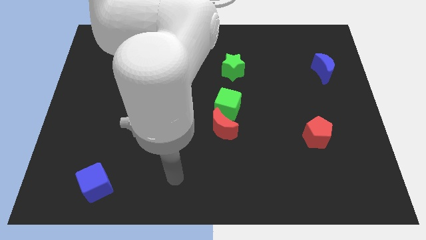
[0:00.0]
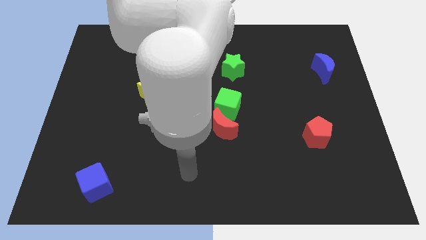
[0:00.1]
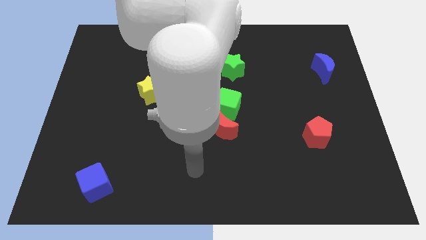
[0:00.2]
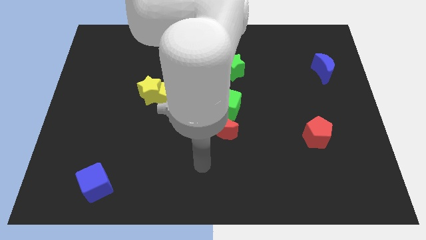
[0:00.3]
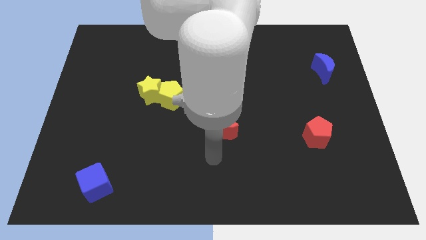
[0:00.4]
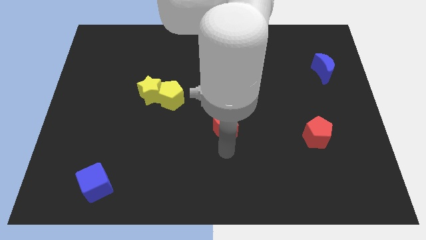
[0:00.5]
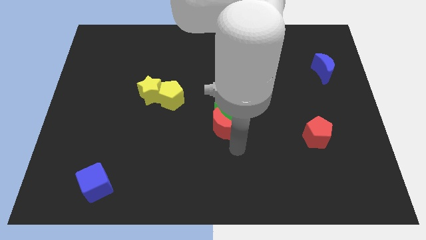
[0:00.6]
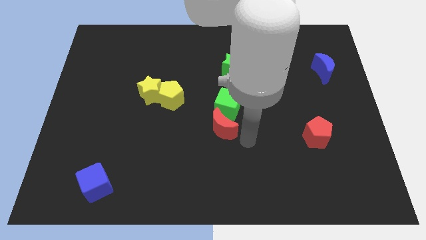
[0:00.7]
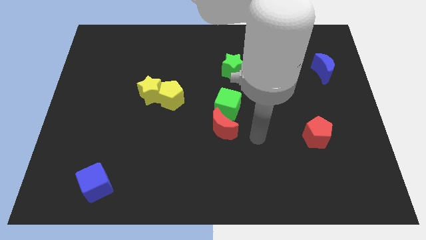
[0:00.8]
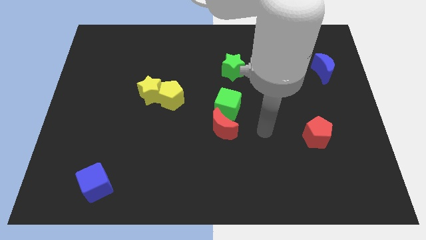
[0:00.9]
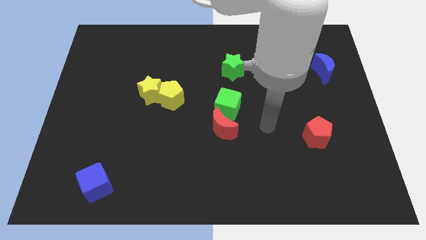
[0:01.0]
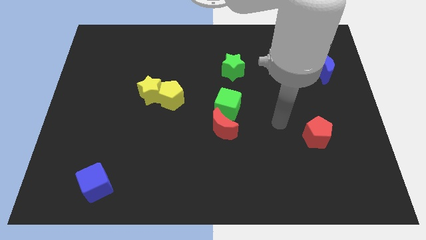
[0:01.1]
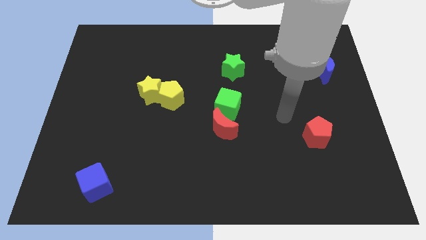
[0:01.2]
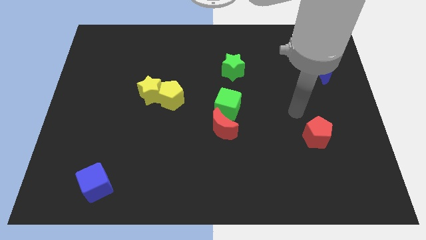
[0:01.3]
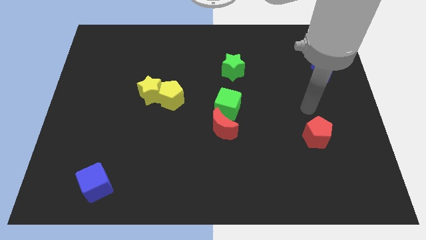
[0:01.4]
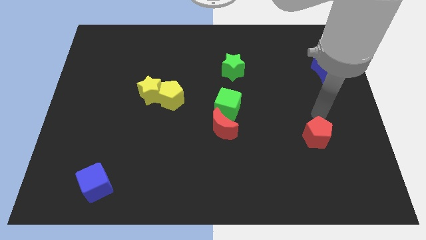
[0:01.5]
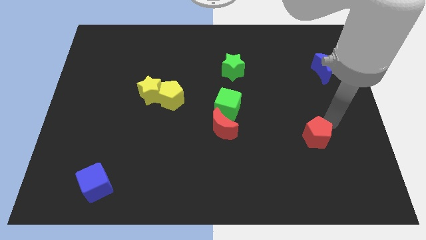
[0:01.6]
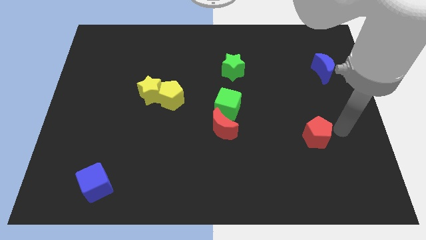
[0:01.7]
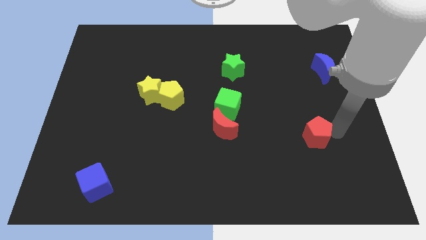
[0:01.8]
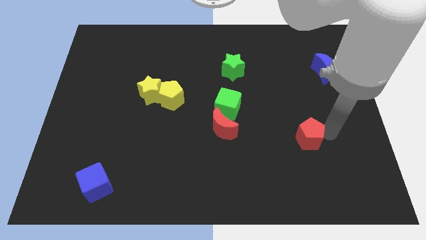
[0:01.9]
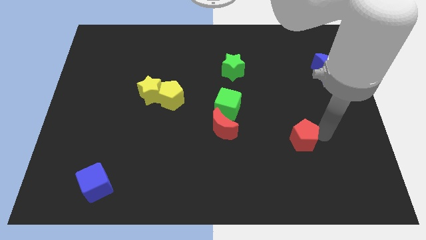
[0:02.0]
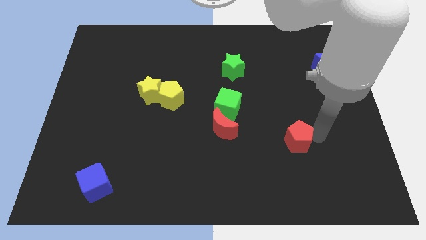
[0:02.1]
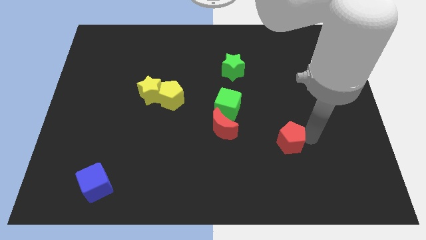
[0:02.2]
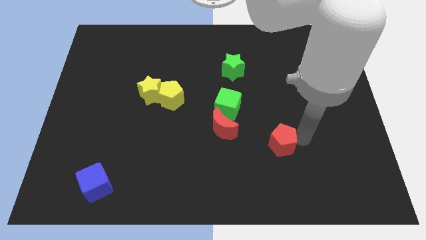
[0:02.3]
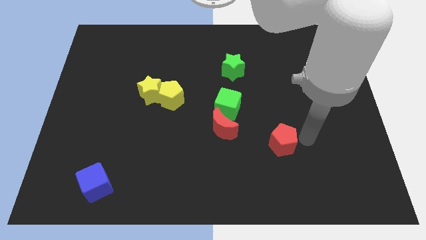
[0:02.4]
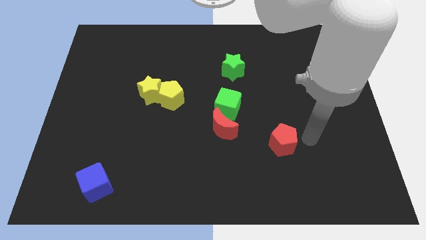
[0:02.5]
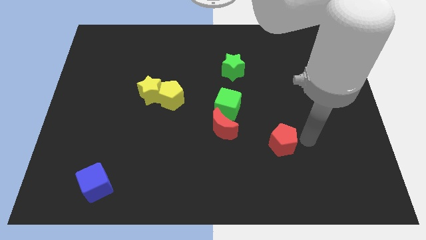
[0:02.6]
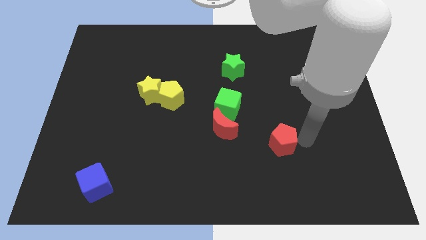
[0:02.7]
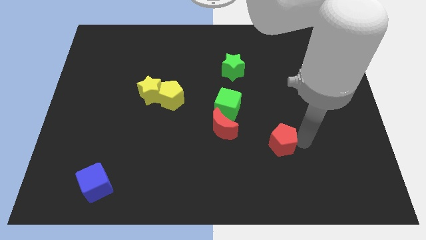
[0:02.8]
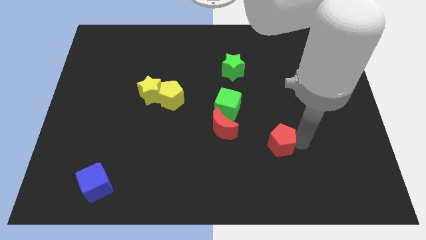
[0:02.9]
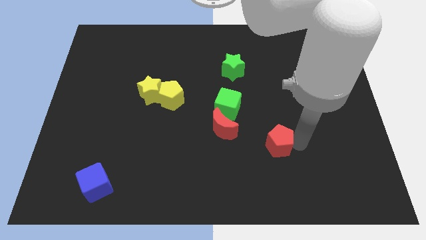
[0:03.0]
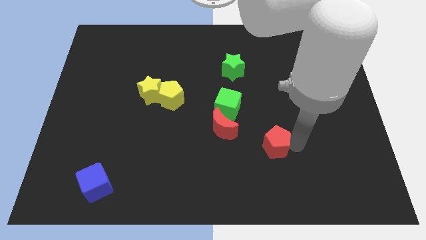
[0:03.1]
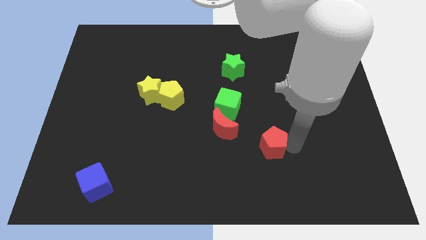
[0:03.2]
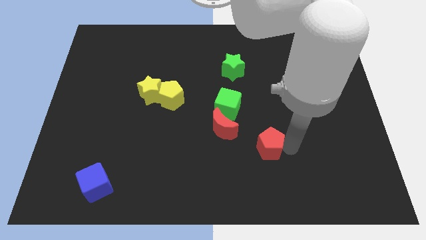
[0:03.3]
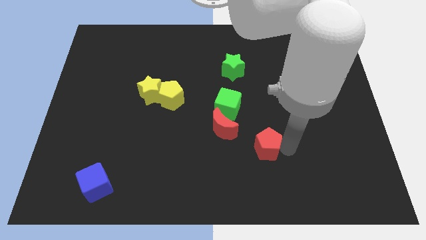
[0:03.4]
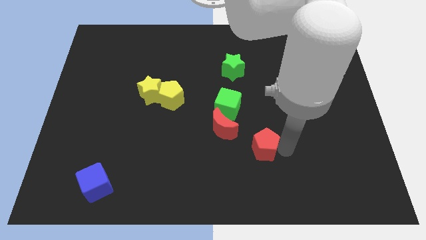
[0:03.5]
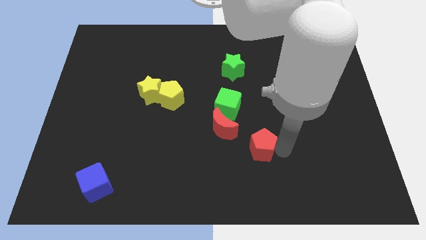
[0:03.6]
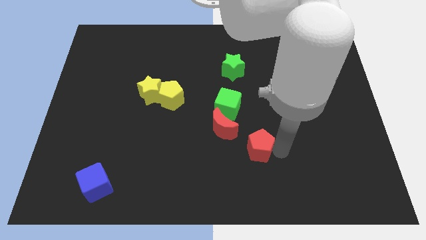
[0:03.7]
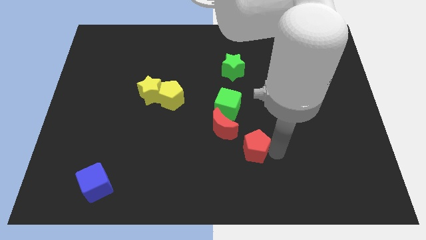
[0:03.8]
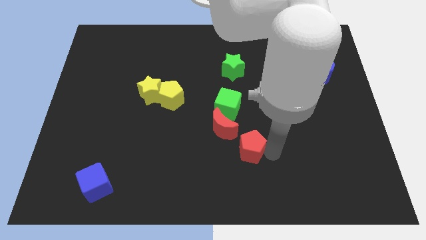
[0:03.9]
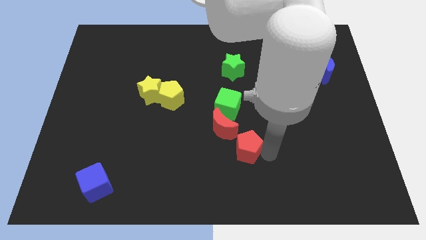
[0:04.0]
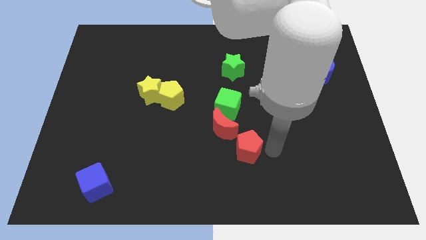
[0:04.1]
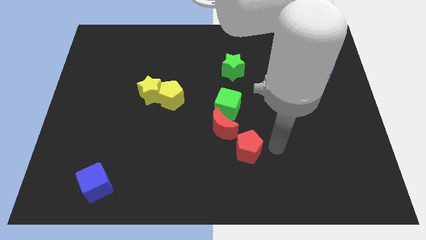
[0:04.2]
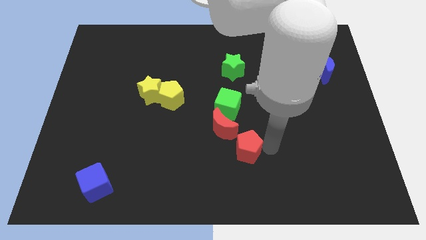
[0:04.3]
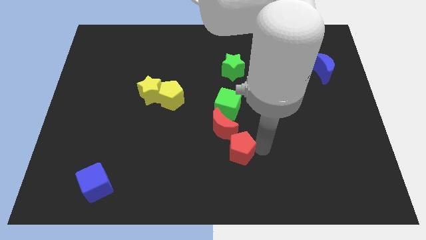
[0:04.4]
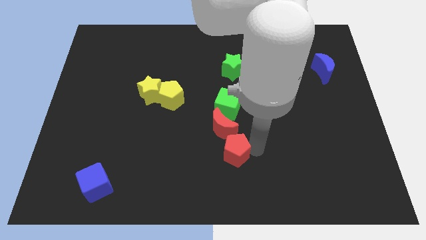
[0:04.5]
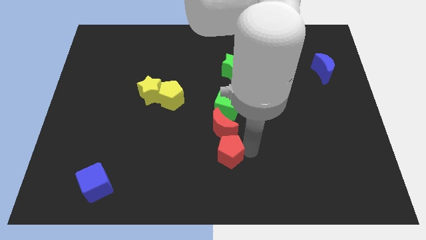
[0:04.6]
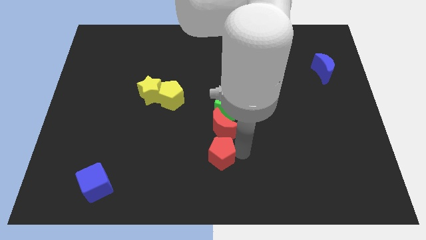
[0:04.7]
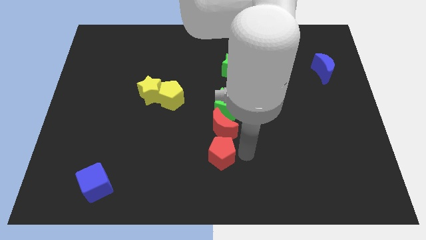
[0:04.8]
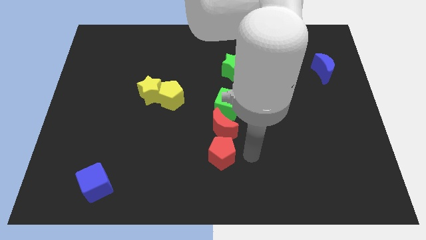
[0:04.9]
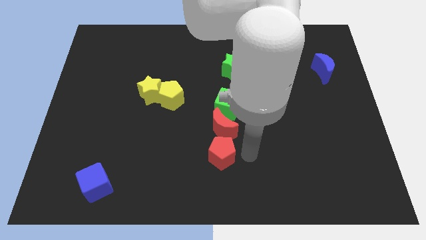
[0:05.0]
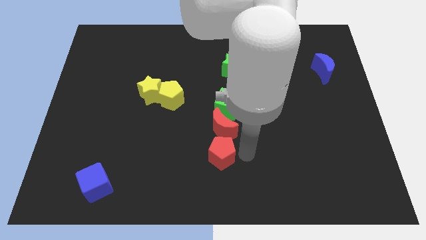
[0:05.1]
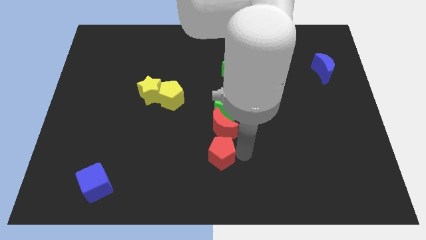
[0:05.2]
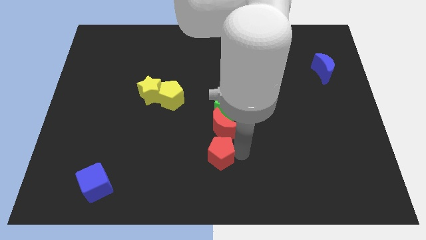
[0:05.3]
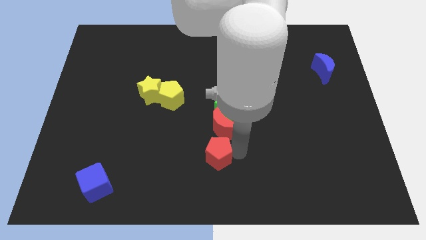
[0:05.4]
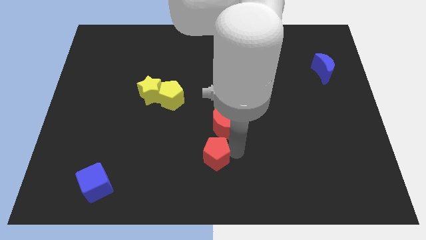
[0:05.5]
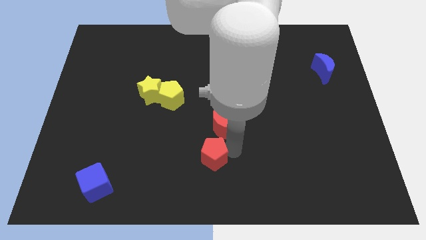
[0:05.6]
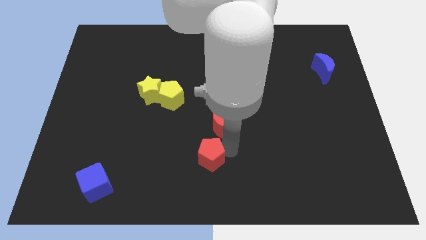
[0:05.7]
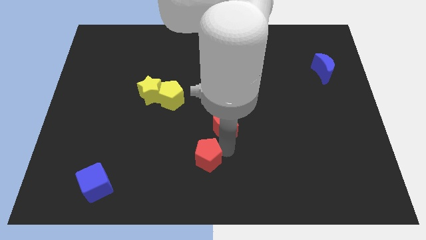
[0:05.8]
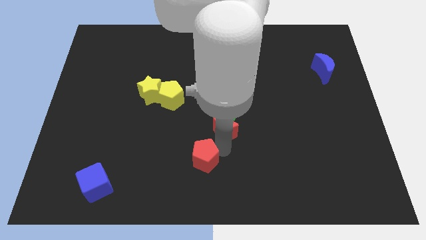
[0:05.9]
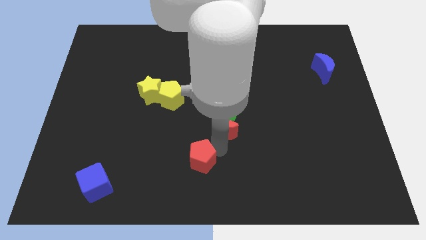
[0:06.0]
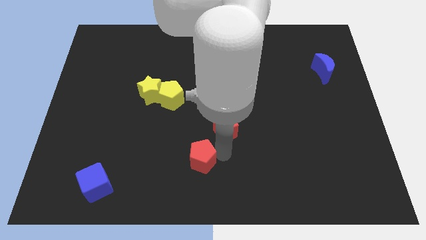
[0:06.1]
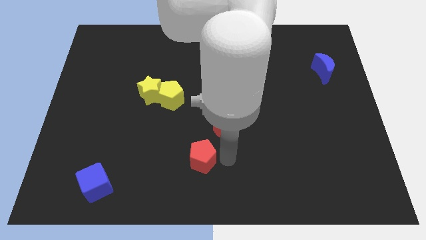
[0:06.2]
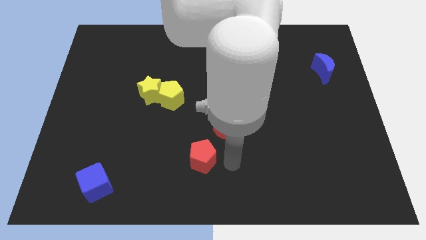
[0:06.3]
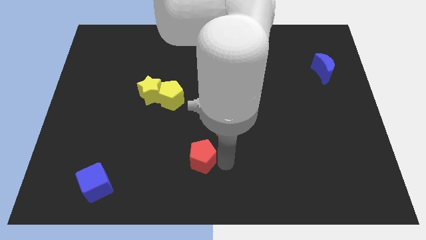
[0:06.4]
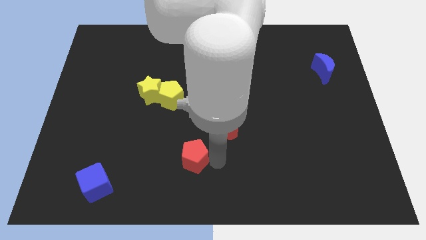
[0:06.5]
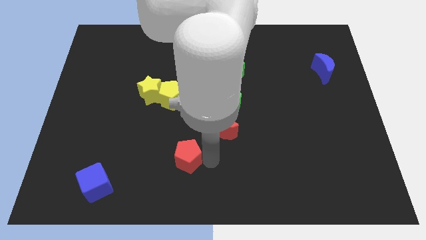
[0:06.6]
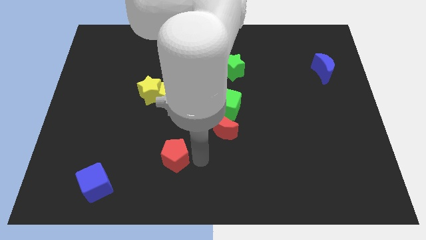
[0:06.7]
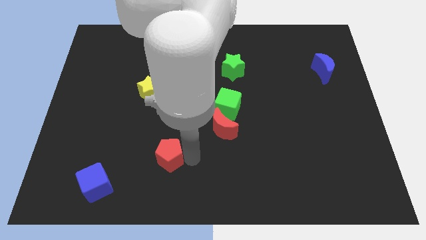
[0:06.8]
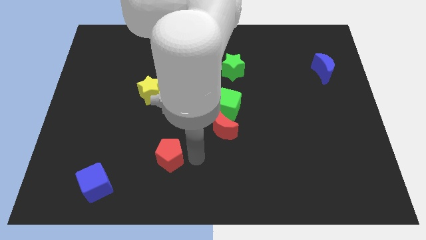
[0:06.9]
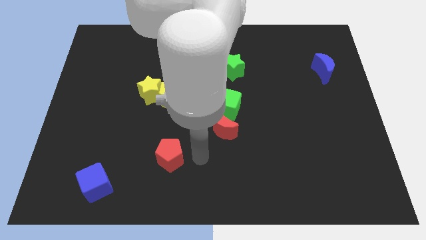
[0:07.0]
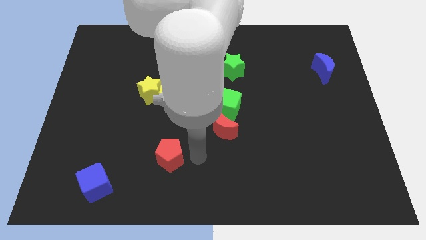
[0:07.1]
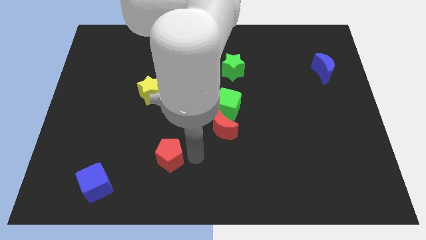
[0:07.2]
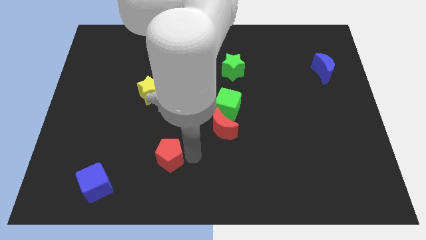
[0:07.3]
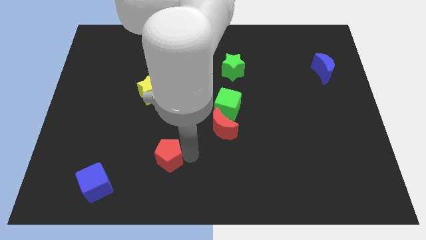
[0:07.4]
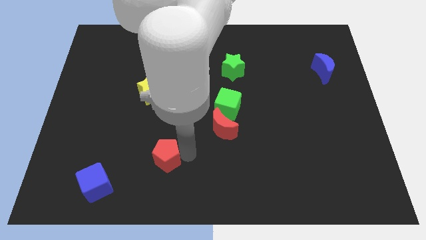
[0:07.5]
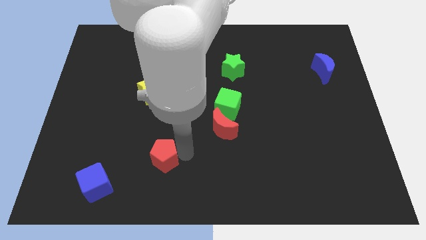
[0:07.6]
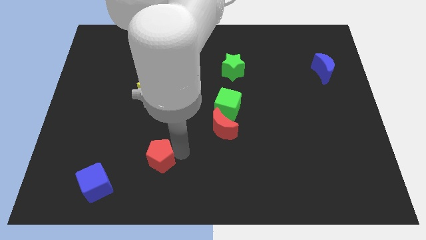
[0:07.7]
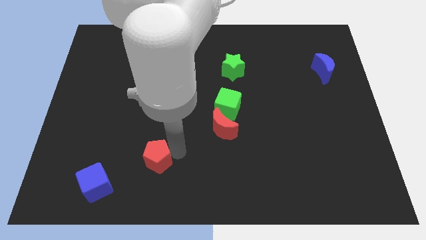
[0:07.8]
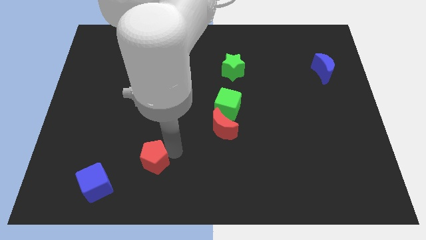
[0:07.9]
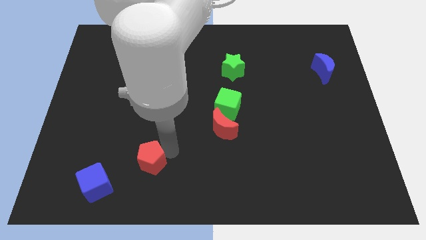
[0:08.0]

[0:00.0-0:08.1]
push the red pentagon to the top right side of the blue cube
